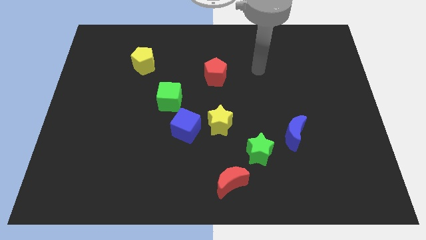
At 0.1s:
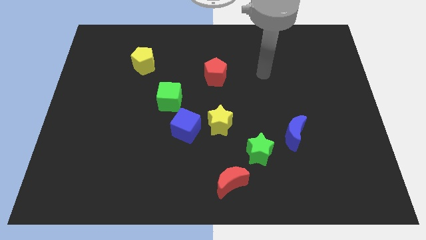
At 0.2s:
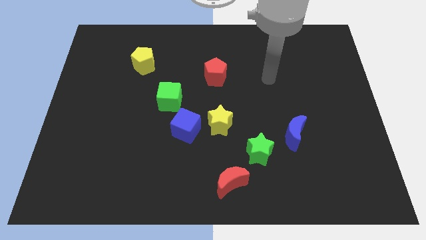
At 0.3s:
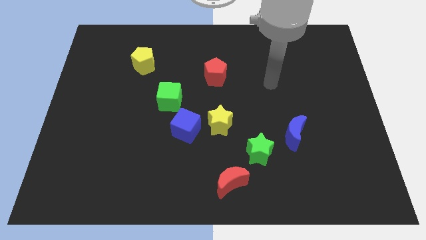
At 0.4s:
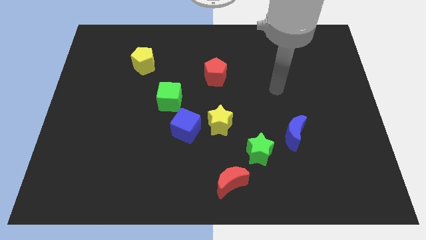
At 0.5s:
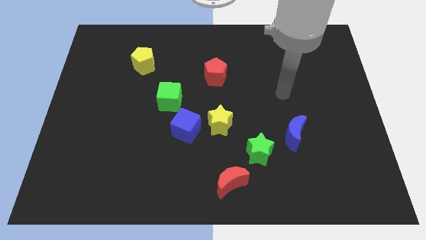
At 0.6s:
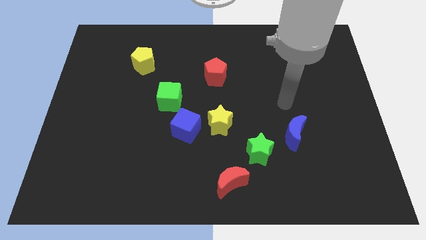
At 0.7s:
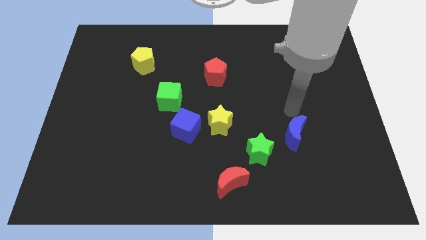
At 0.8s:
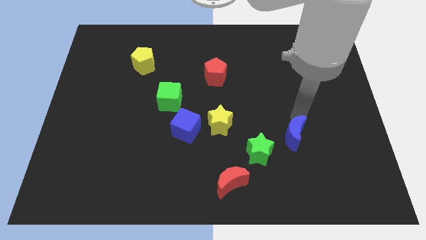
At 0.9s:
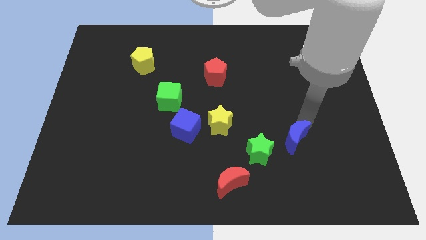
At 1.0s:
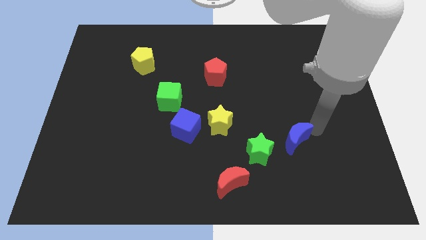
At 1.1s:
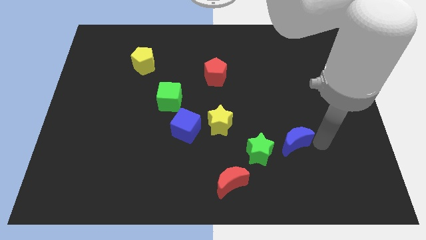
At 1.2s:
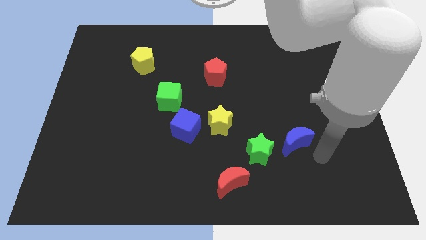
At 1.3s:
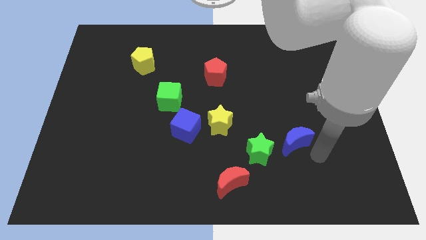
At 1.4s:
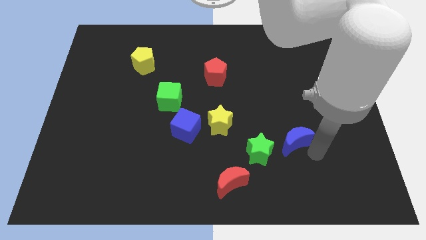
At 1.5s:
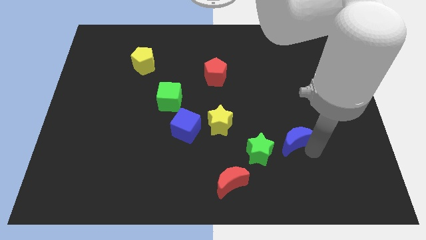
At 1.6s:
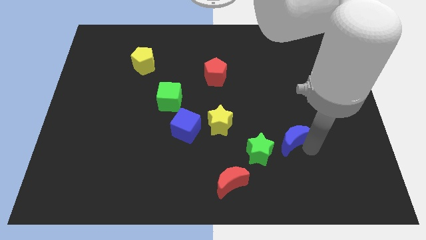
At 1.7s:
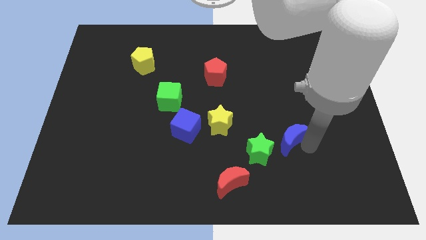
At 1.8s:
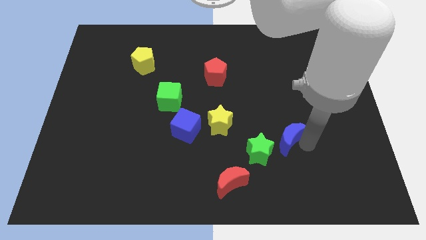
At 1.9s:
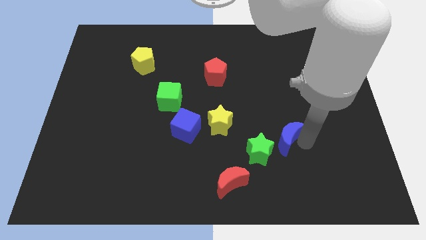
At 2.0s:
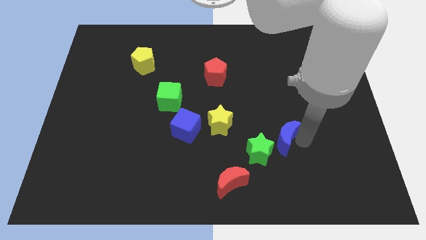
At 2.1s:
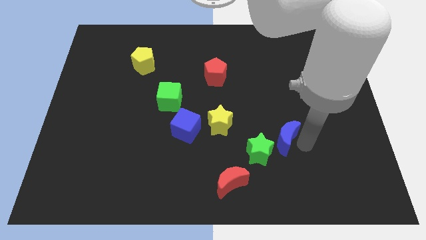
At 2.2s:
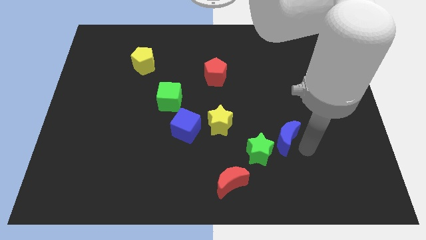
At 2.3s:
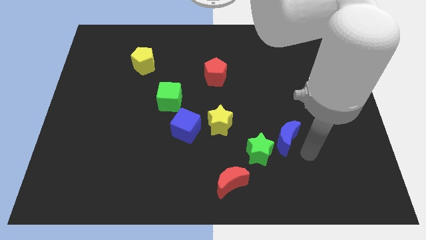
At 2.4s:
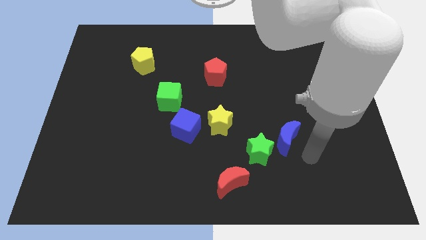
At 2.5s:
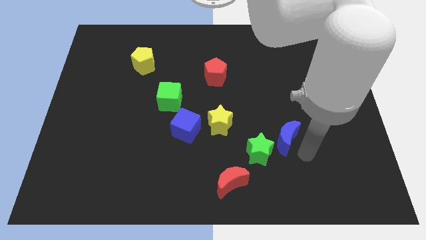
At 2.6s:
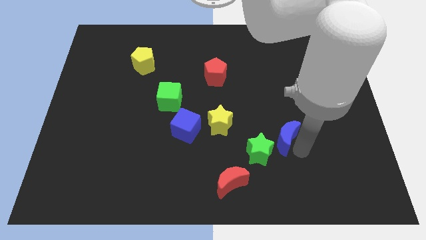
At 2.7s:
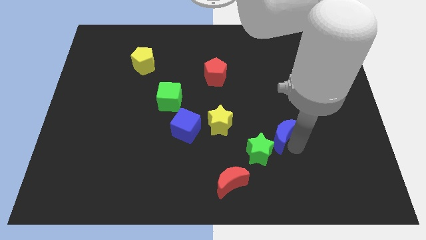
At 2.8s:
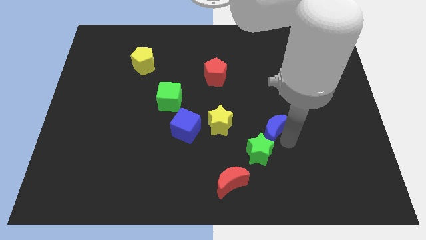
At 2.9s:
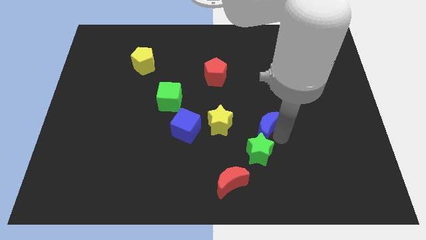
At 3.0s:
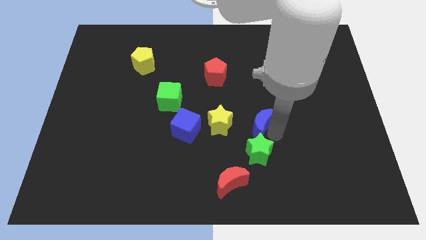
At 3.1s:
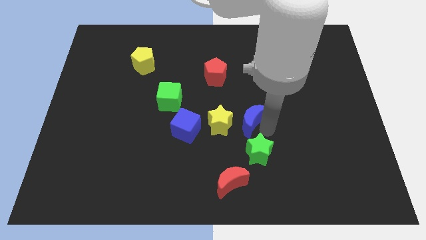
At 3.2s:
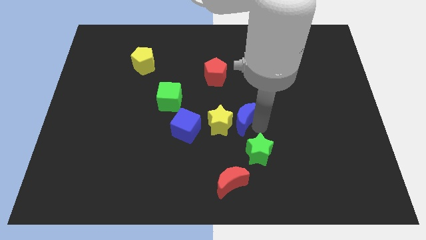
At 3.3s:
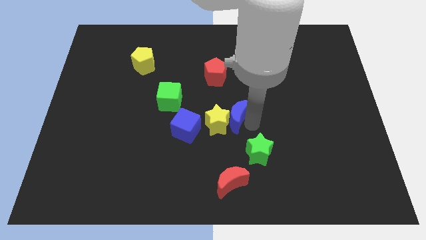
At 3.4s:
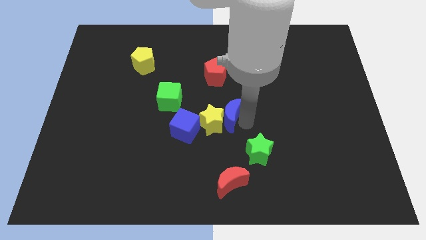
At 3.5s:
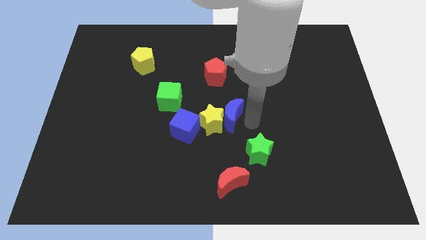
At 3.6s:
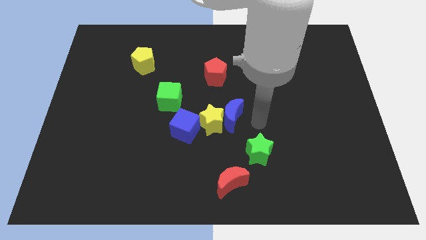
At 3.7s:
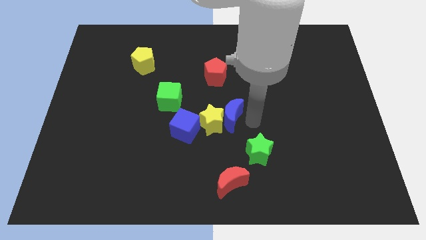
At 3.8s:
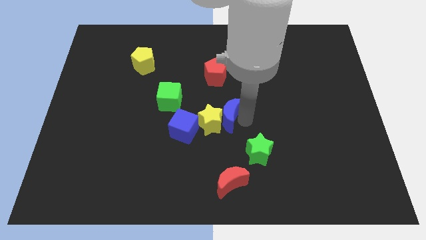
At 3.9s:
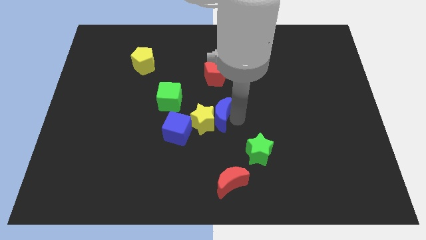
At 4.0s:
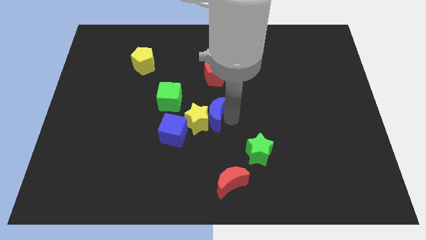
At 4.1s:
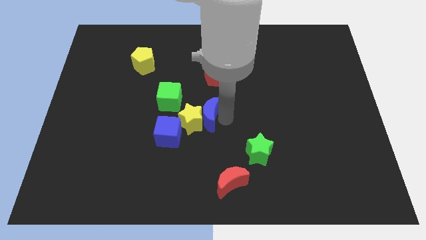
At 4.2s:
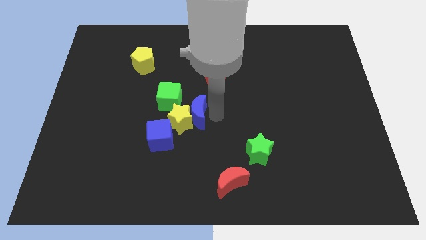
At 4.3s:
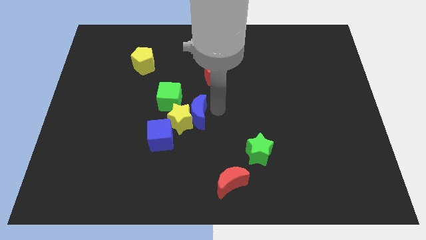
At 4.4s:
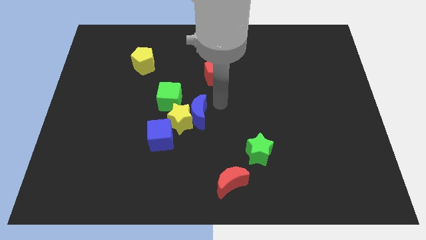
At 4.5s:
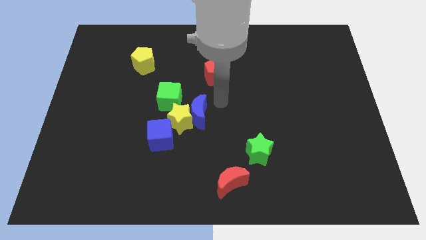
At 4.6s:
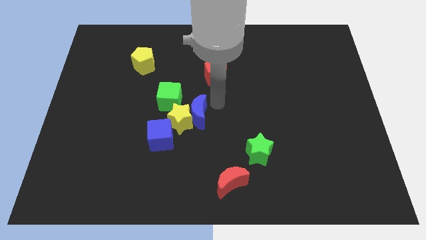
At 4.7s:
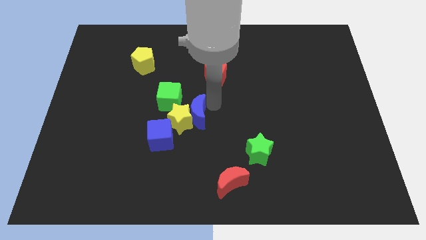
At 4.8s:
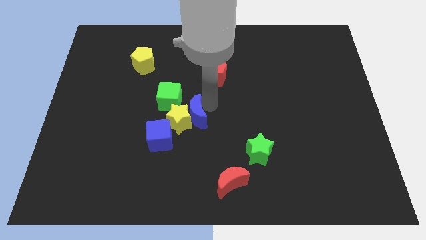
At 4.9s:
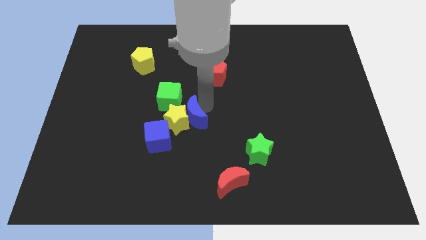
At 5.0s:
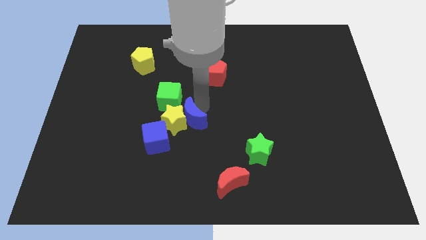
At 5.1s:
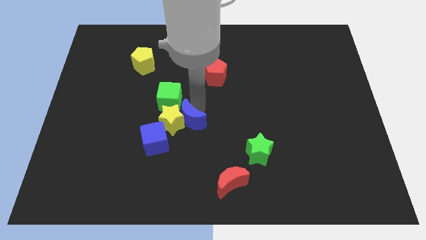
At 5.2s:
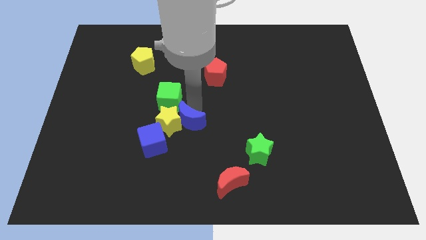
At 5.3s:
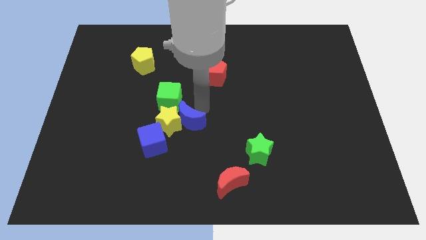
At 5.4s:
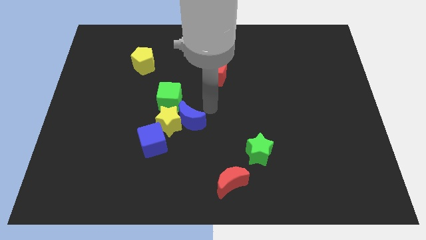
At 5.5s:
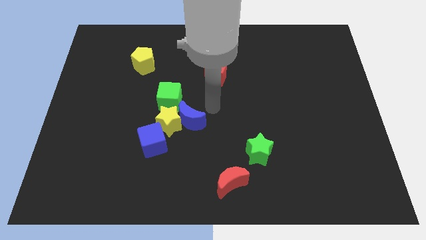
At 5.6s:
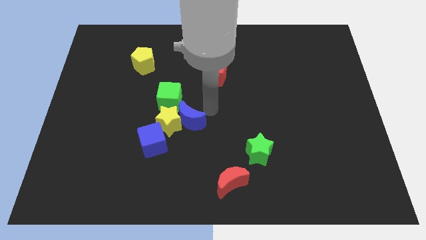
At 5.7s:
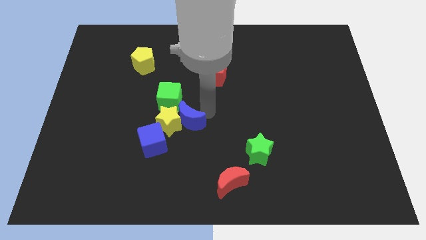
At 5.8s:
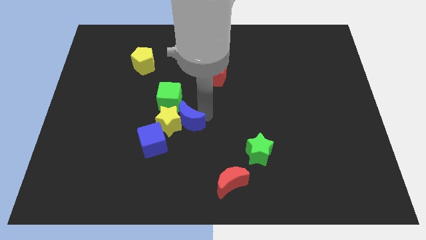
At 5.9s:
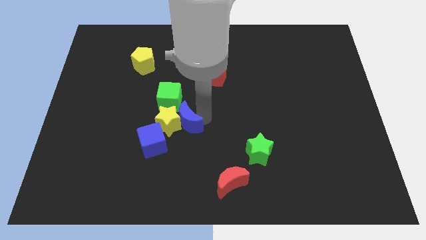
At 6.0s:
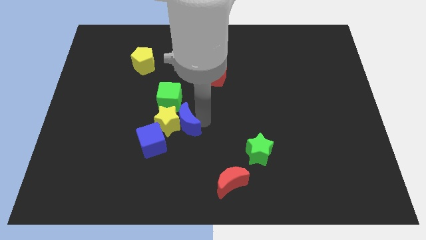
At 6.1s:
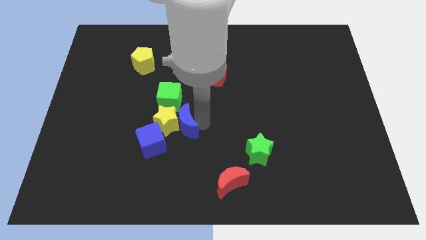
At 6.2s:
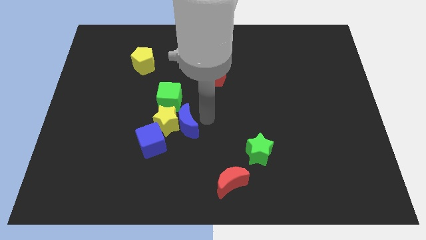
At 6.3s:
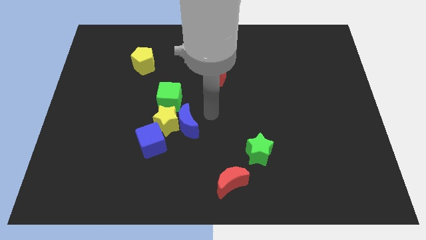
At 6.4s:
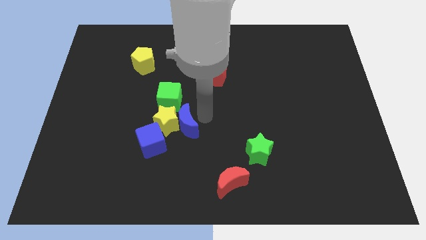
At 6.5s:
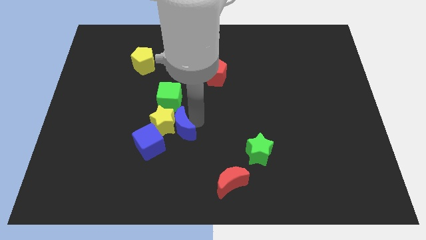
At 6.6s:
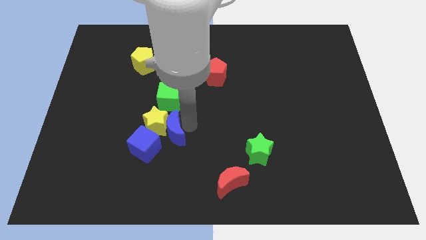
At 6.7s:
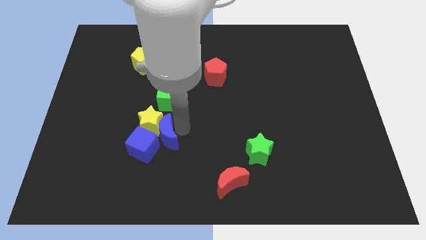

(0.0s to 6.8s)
slide the blue moon towards the blue cube
